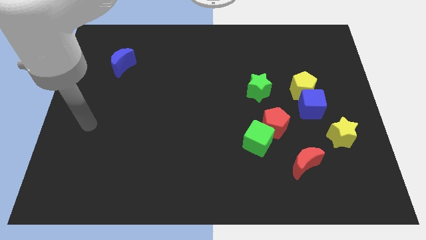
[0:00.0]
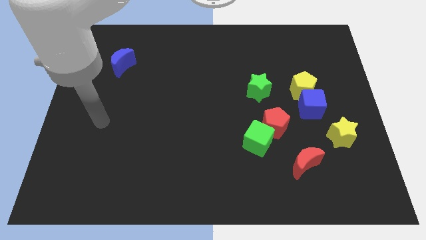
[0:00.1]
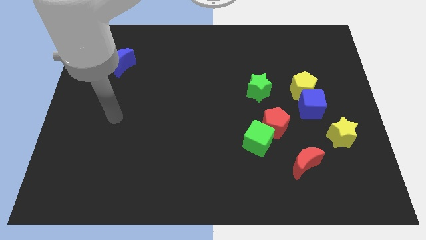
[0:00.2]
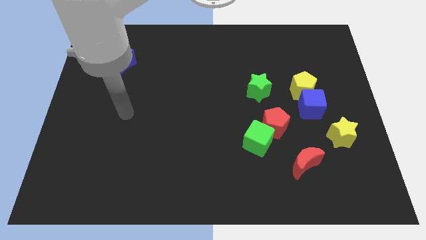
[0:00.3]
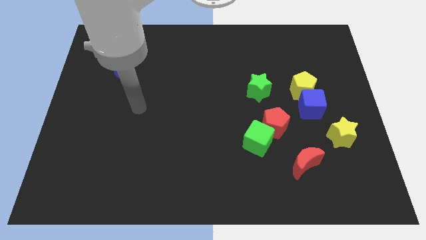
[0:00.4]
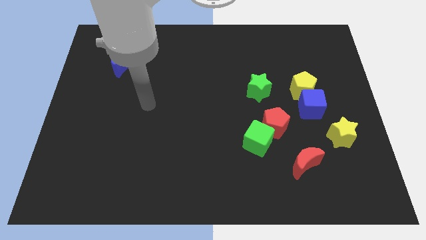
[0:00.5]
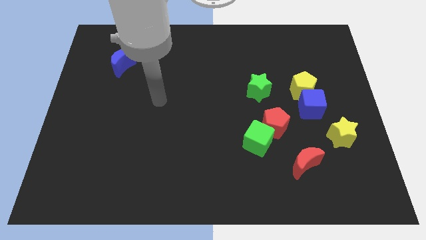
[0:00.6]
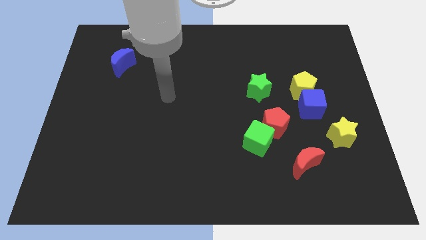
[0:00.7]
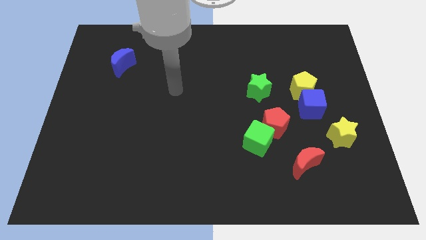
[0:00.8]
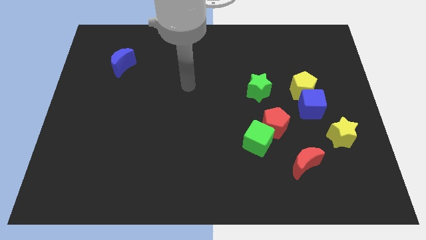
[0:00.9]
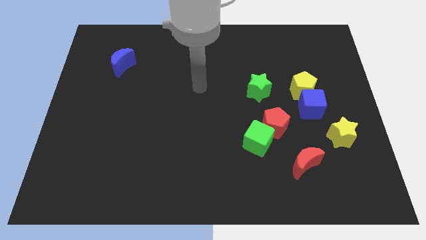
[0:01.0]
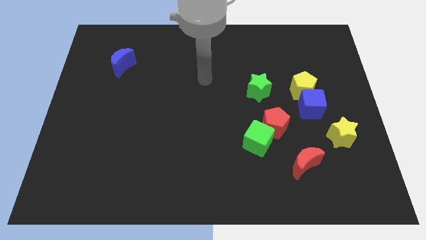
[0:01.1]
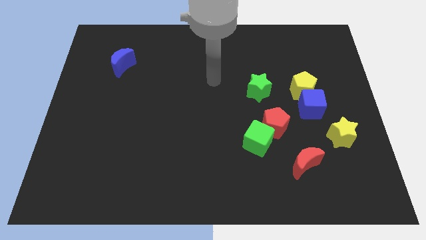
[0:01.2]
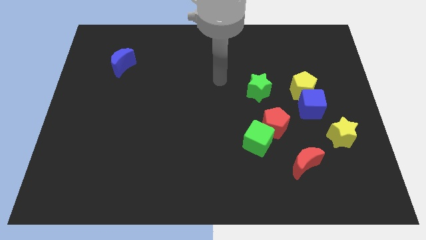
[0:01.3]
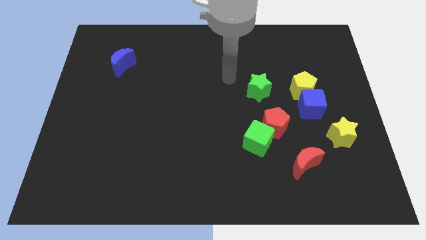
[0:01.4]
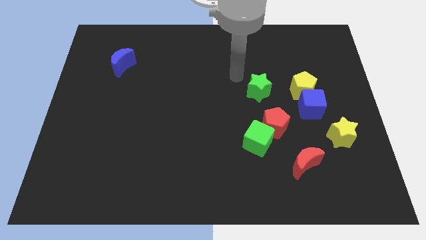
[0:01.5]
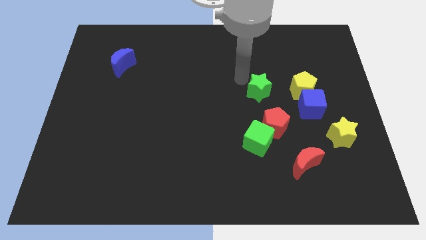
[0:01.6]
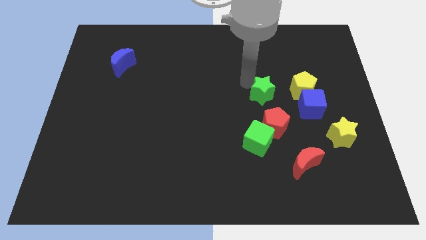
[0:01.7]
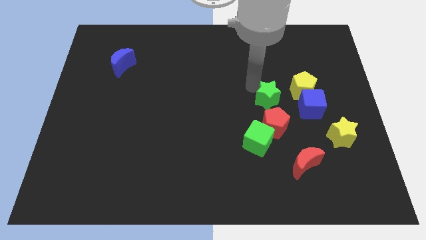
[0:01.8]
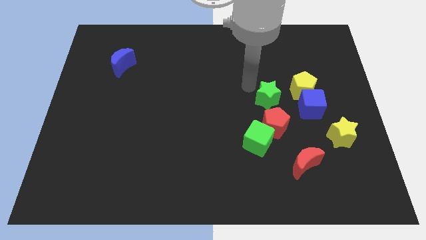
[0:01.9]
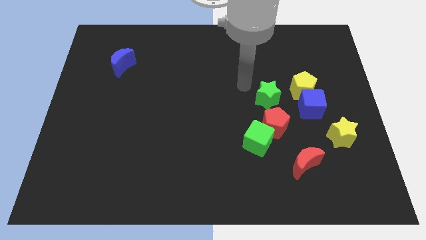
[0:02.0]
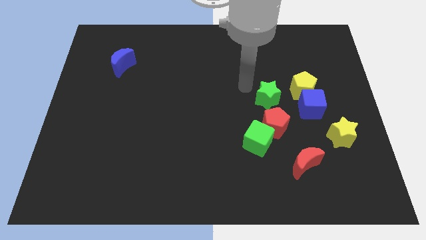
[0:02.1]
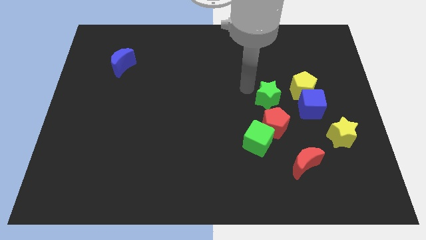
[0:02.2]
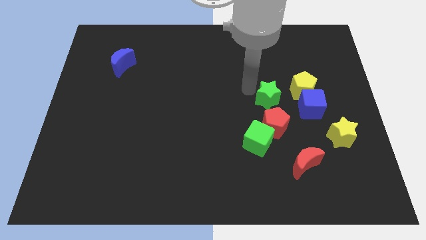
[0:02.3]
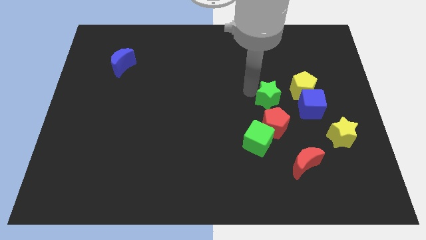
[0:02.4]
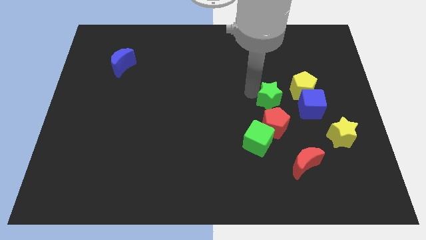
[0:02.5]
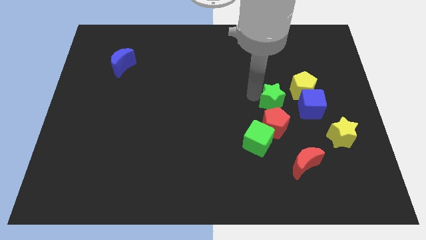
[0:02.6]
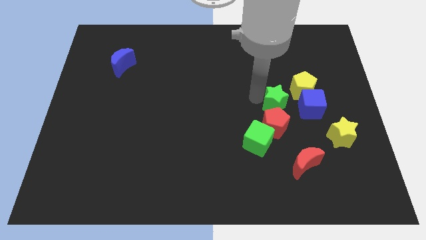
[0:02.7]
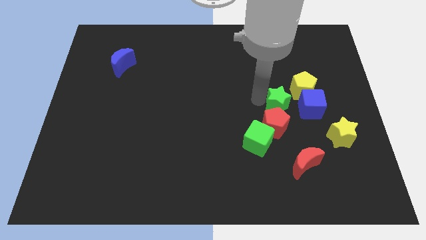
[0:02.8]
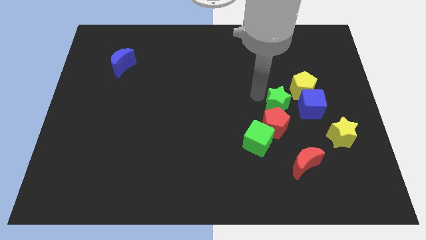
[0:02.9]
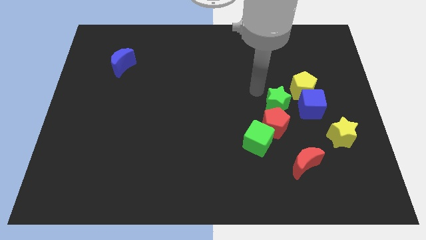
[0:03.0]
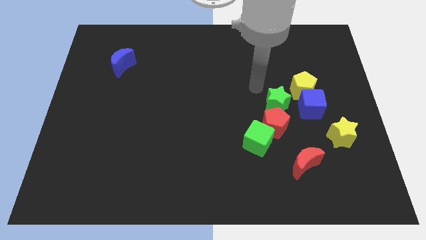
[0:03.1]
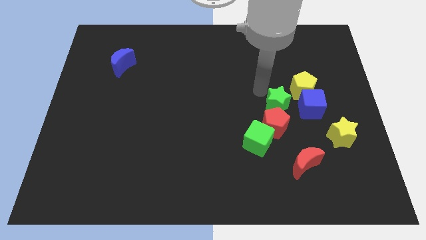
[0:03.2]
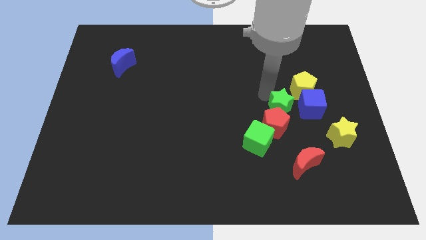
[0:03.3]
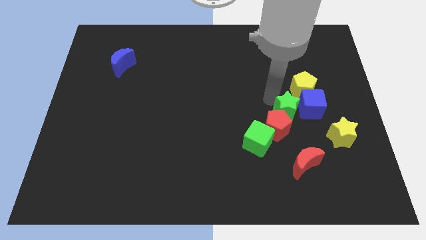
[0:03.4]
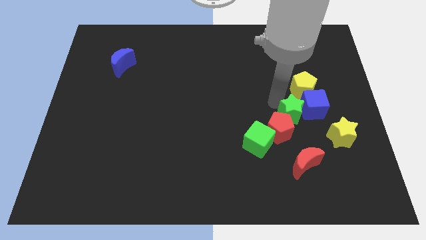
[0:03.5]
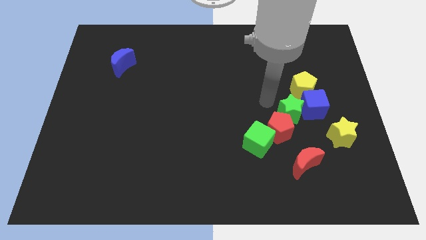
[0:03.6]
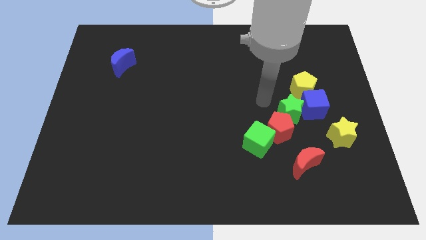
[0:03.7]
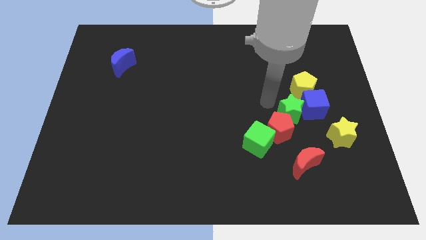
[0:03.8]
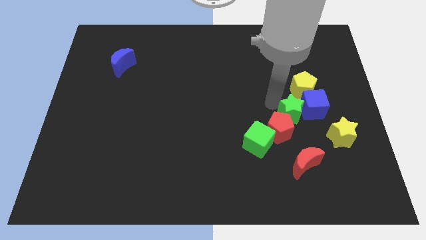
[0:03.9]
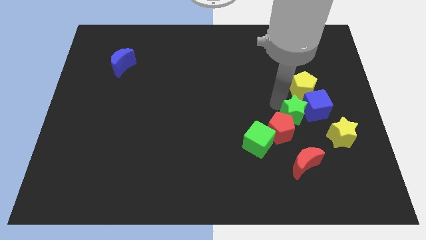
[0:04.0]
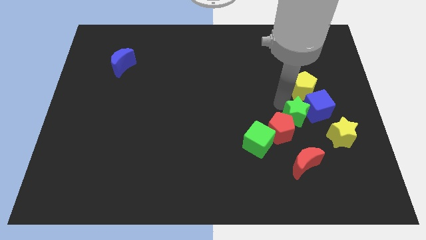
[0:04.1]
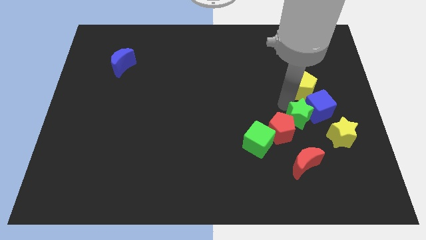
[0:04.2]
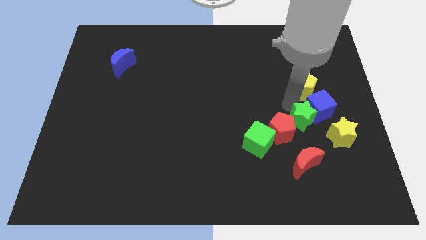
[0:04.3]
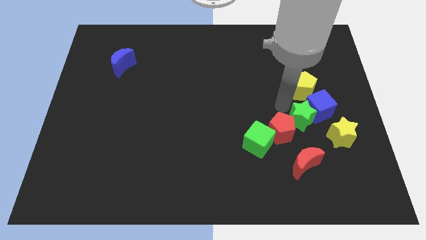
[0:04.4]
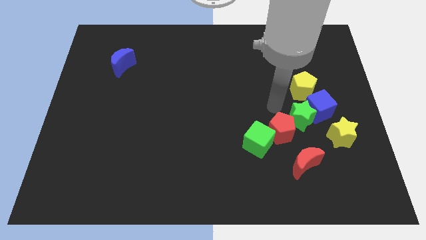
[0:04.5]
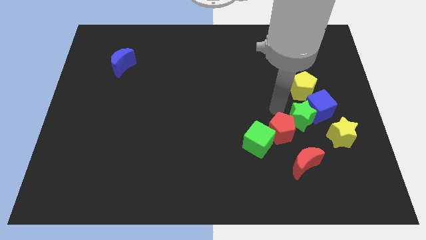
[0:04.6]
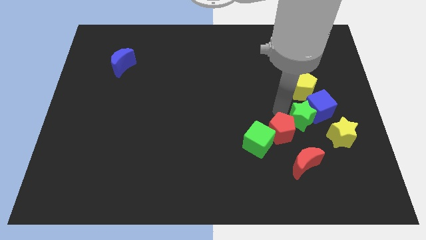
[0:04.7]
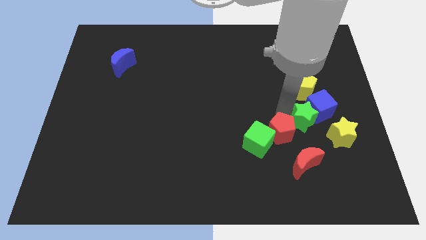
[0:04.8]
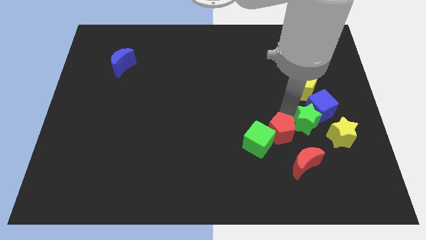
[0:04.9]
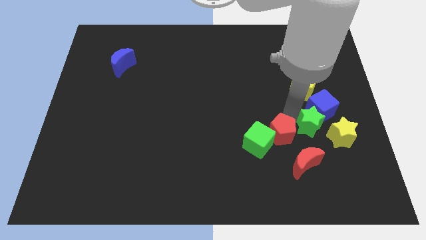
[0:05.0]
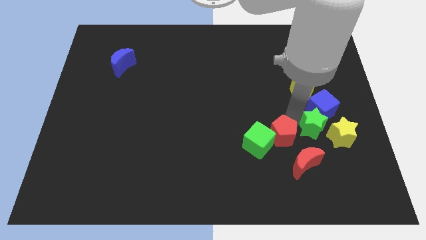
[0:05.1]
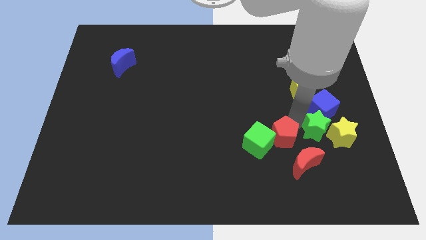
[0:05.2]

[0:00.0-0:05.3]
slide the green star close to the yellow star

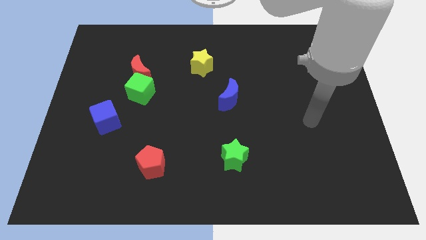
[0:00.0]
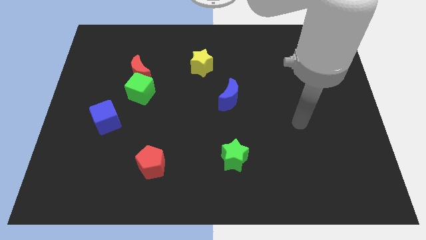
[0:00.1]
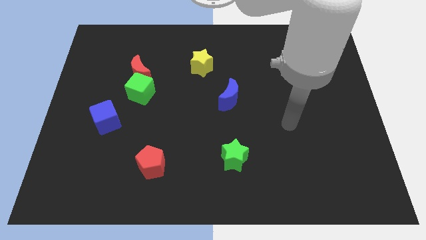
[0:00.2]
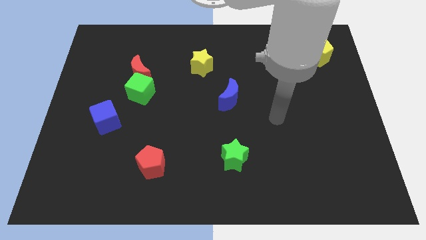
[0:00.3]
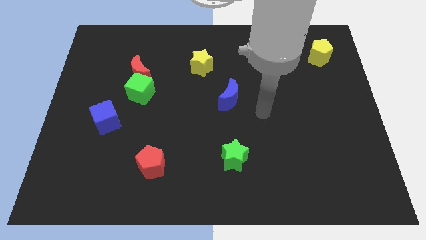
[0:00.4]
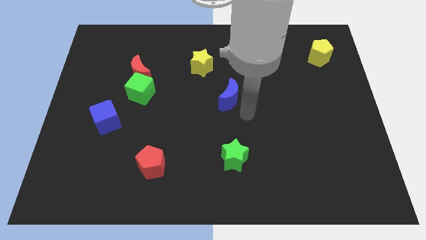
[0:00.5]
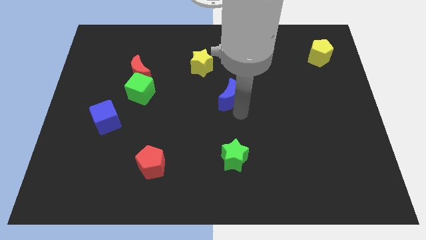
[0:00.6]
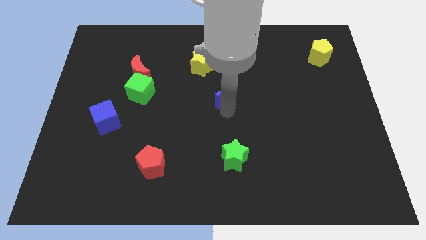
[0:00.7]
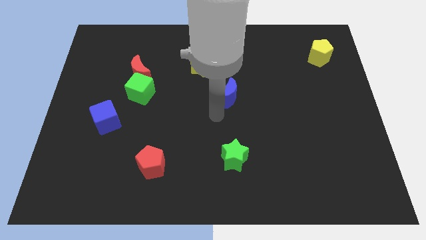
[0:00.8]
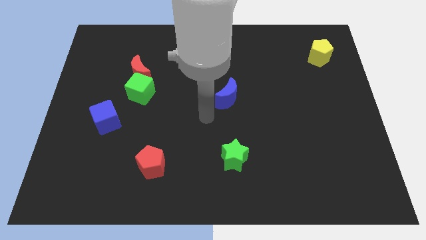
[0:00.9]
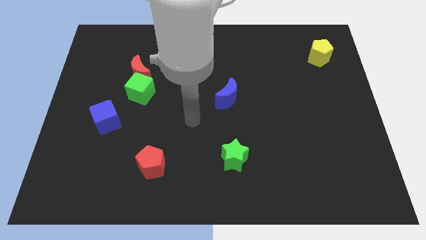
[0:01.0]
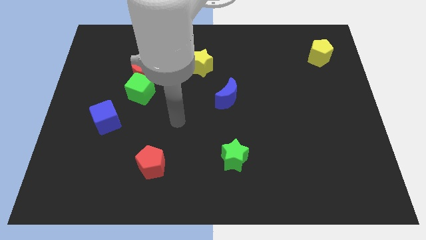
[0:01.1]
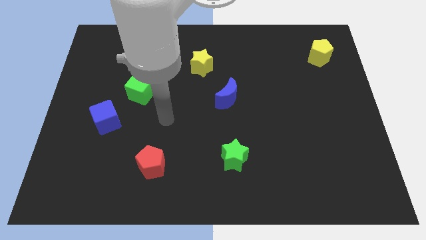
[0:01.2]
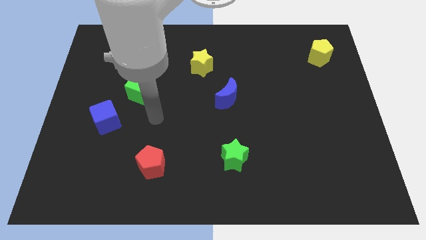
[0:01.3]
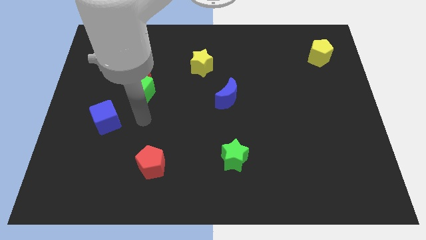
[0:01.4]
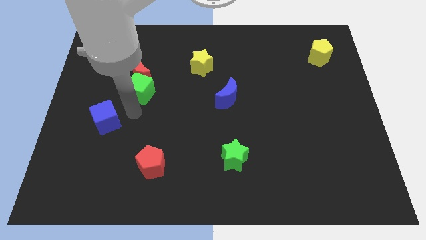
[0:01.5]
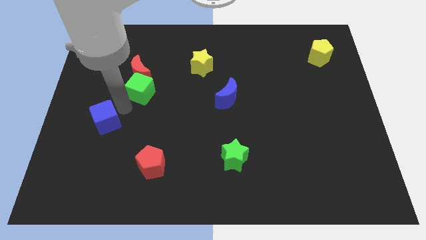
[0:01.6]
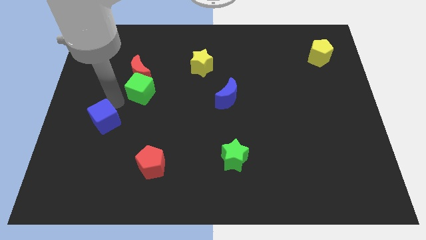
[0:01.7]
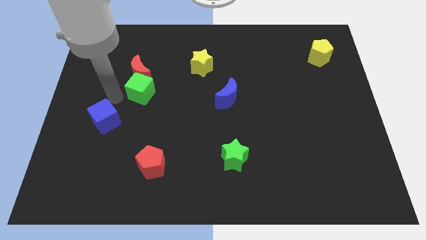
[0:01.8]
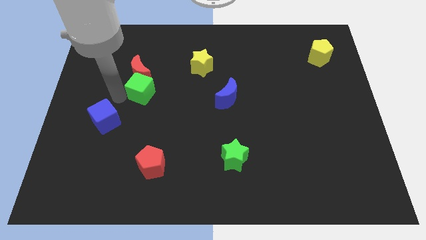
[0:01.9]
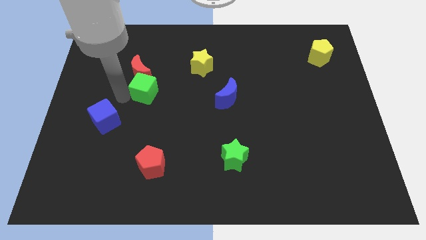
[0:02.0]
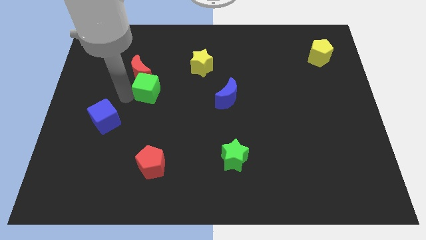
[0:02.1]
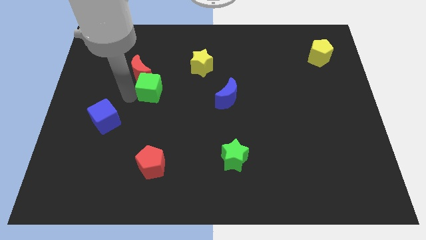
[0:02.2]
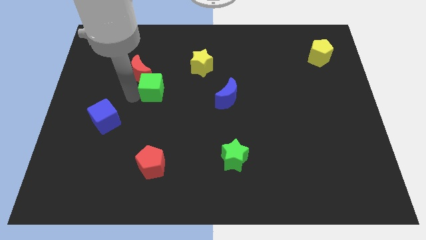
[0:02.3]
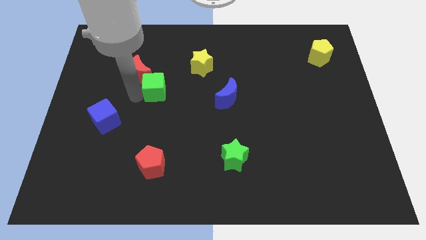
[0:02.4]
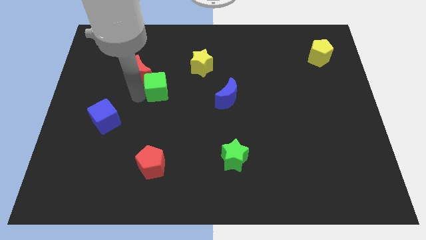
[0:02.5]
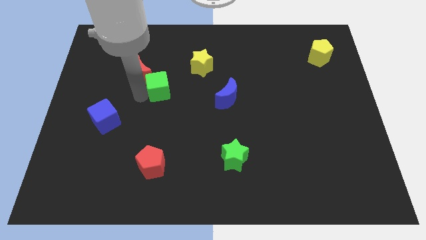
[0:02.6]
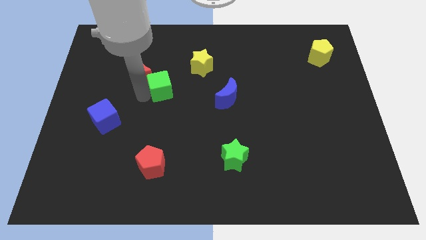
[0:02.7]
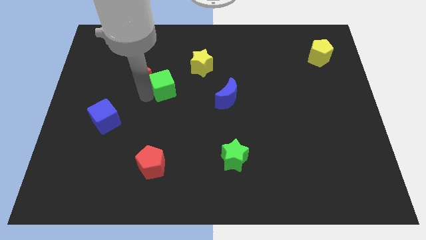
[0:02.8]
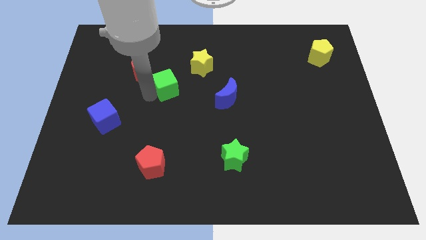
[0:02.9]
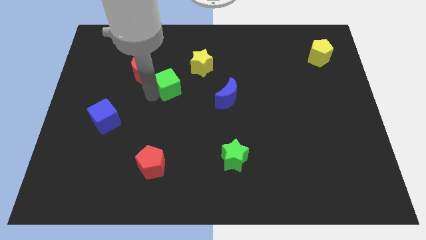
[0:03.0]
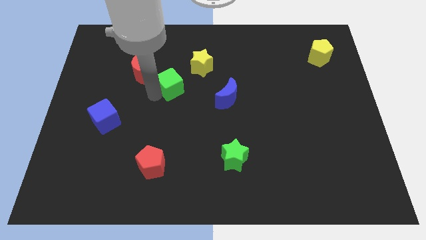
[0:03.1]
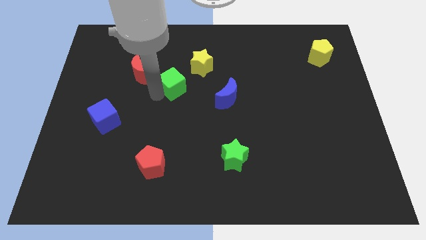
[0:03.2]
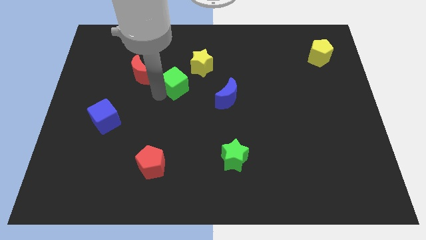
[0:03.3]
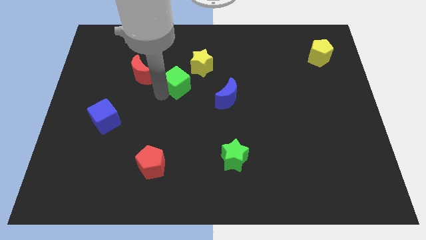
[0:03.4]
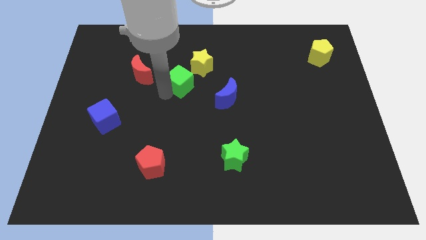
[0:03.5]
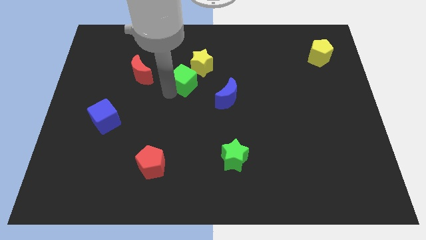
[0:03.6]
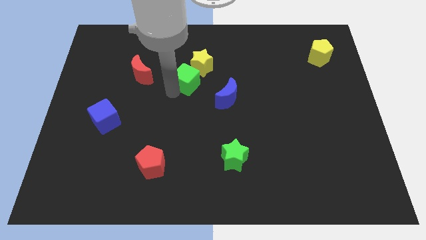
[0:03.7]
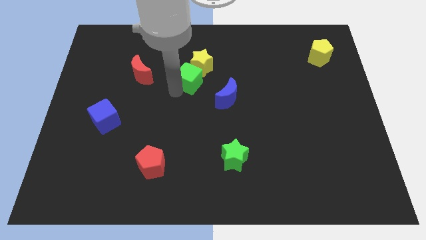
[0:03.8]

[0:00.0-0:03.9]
put the green cube close to the yellow star
